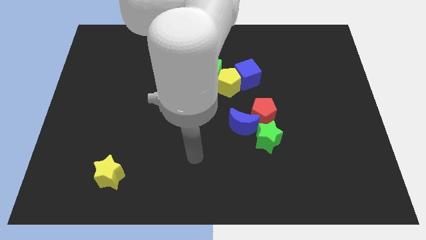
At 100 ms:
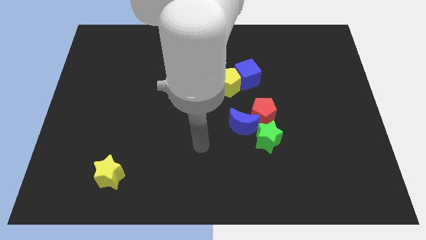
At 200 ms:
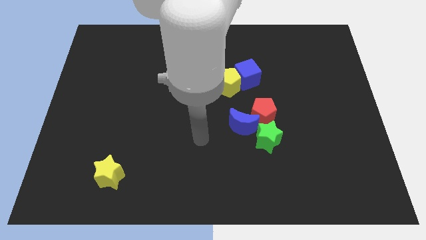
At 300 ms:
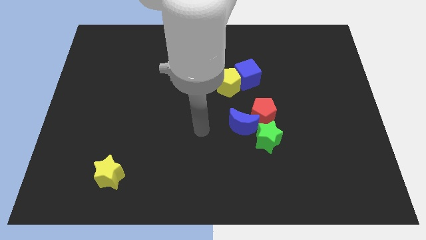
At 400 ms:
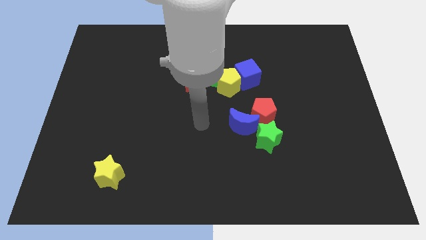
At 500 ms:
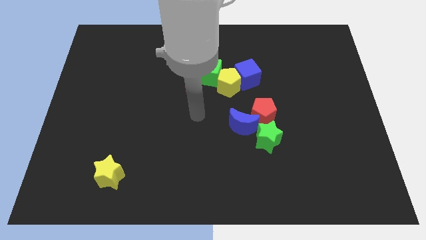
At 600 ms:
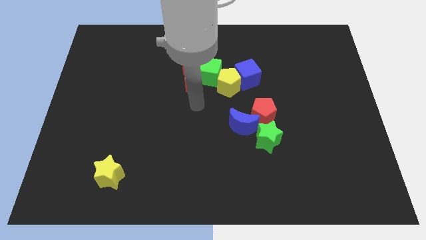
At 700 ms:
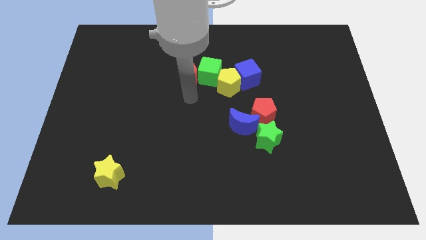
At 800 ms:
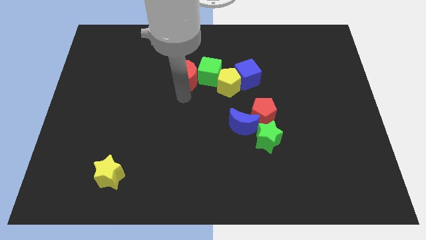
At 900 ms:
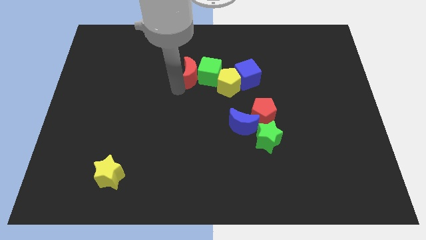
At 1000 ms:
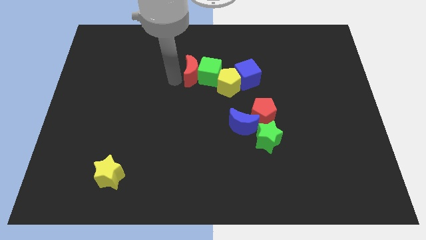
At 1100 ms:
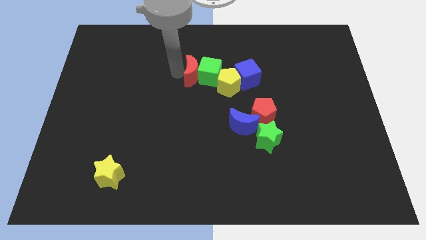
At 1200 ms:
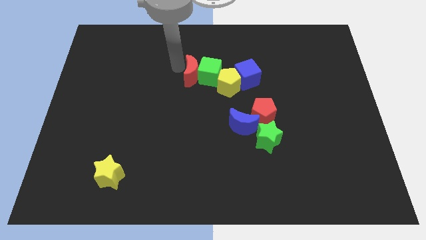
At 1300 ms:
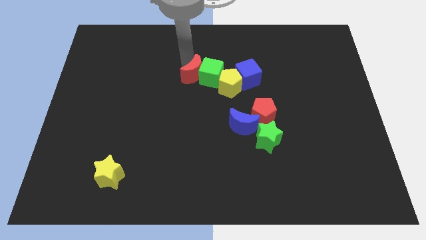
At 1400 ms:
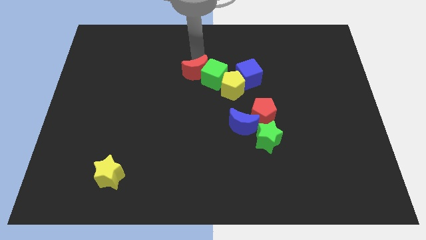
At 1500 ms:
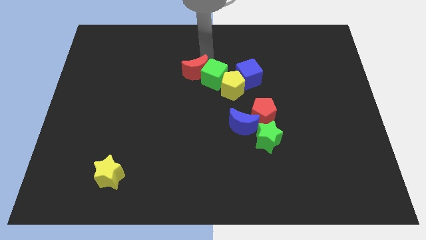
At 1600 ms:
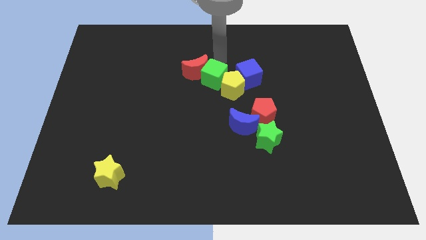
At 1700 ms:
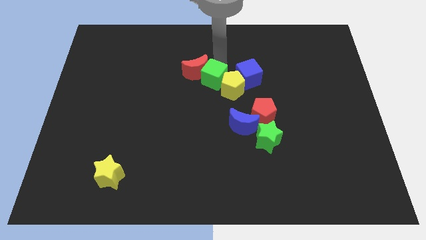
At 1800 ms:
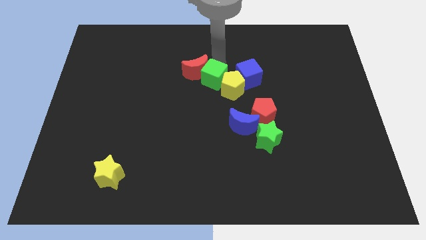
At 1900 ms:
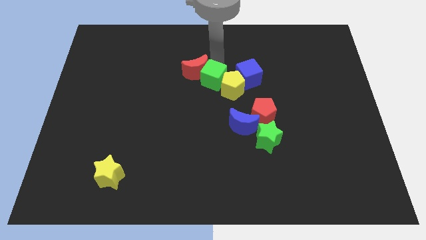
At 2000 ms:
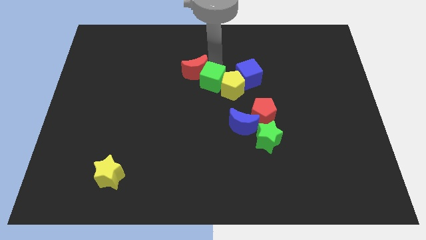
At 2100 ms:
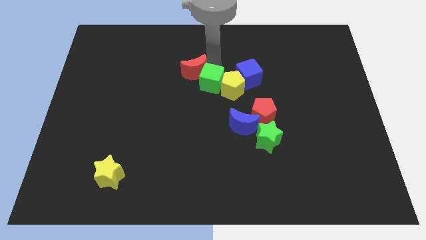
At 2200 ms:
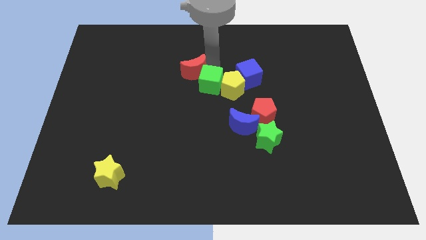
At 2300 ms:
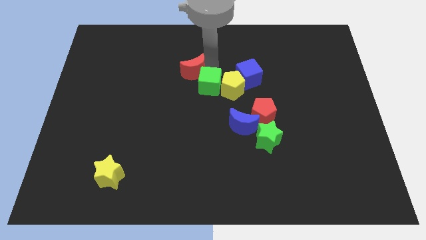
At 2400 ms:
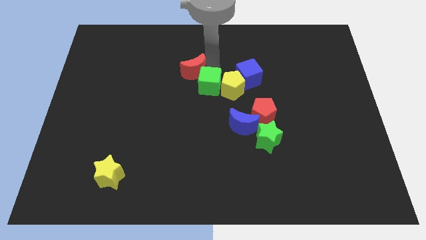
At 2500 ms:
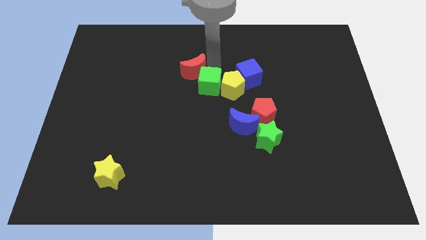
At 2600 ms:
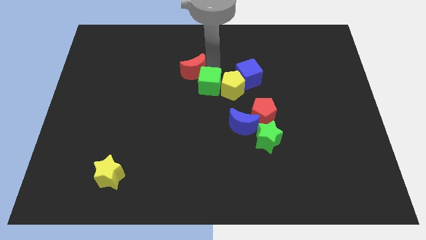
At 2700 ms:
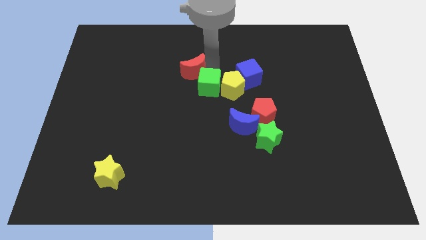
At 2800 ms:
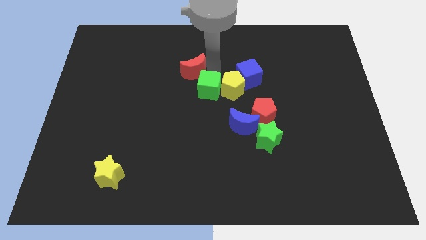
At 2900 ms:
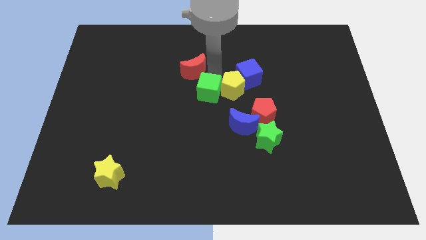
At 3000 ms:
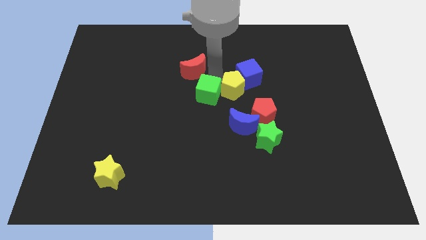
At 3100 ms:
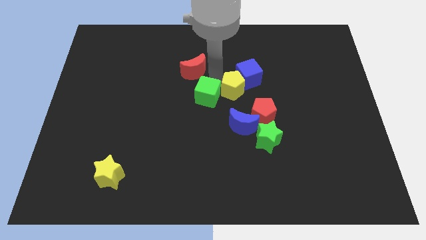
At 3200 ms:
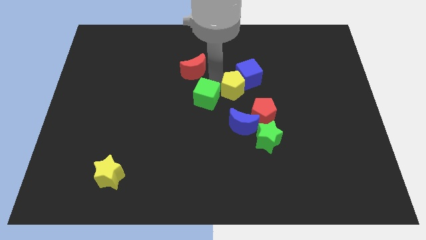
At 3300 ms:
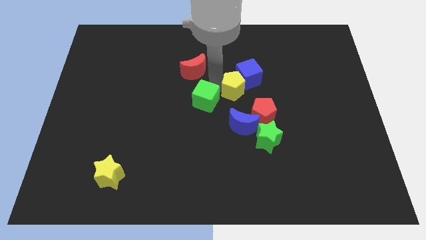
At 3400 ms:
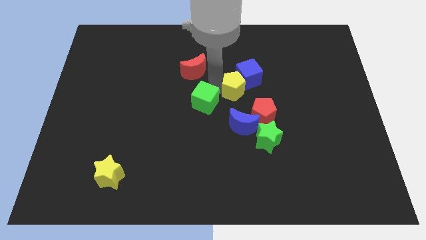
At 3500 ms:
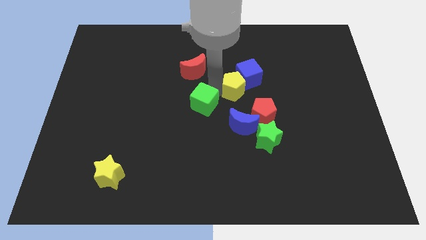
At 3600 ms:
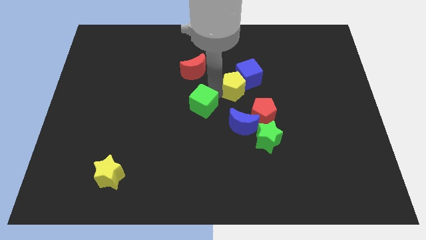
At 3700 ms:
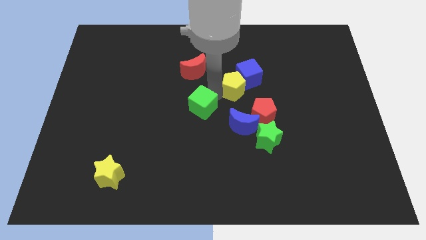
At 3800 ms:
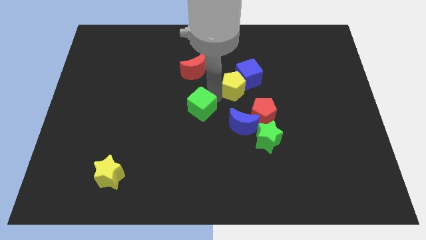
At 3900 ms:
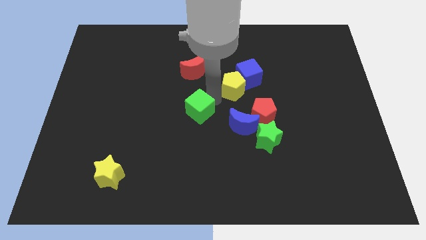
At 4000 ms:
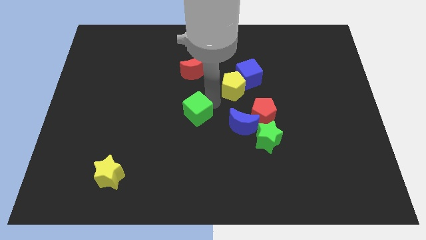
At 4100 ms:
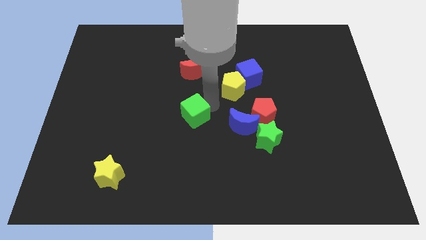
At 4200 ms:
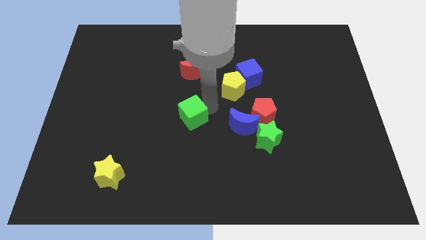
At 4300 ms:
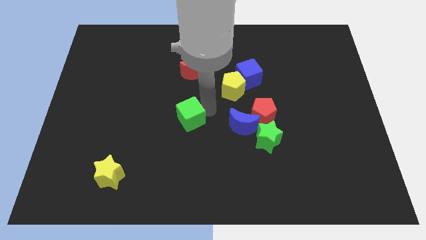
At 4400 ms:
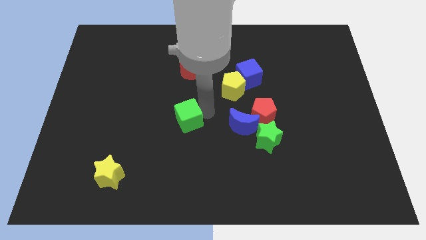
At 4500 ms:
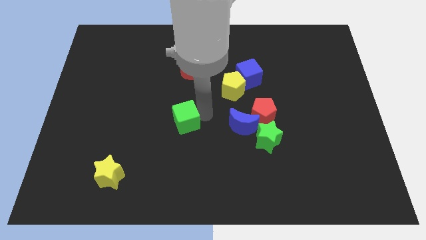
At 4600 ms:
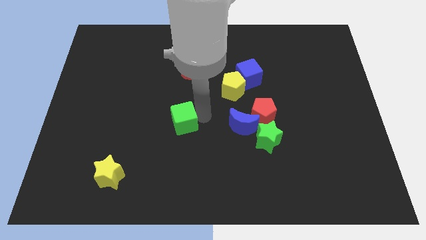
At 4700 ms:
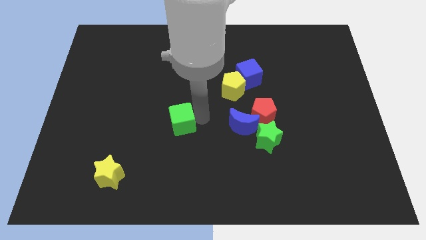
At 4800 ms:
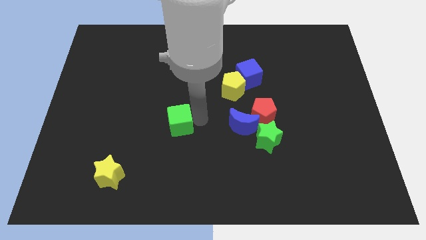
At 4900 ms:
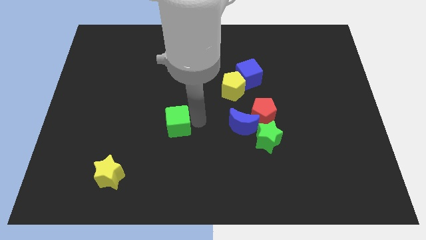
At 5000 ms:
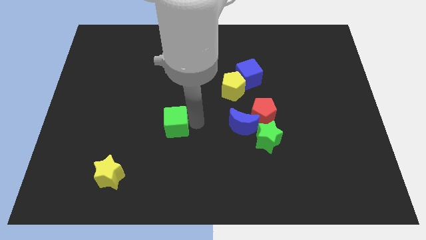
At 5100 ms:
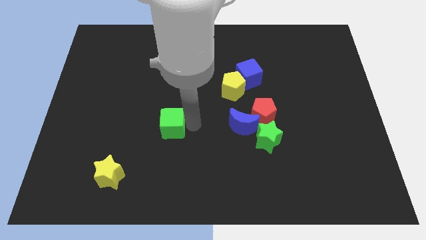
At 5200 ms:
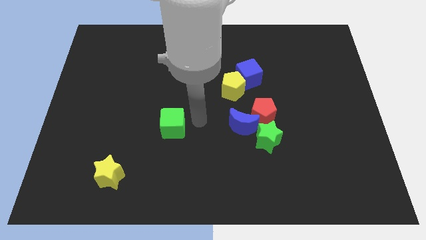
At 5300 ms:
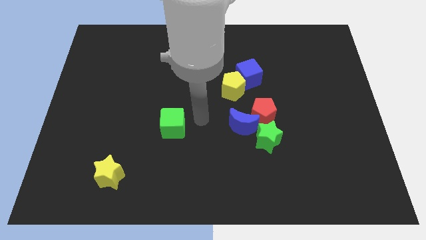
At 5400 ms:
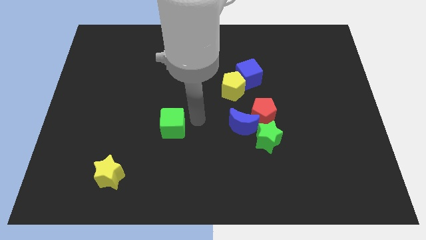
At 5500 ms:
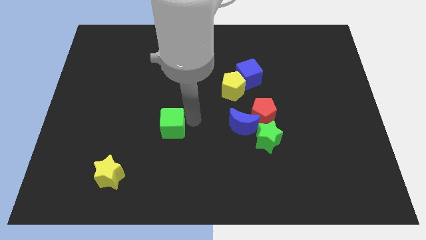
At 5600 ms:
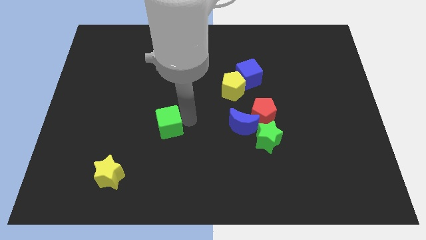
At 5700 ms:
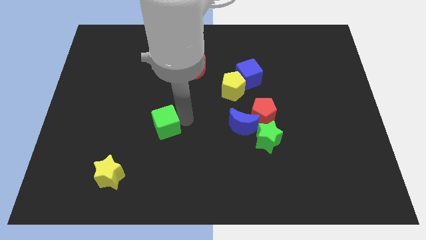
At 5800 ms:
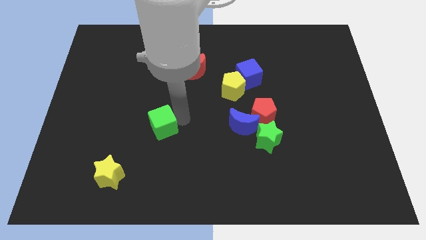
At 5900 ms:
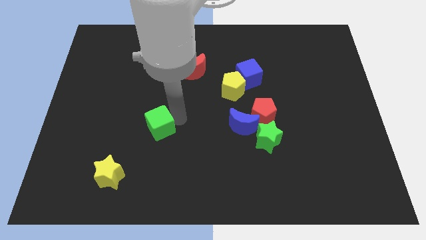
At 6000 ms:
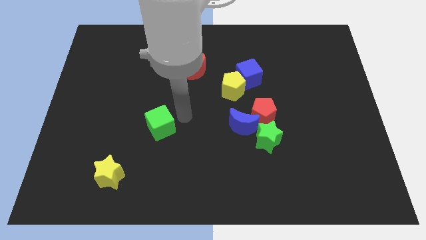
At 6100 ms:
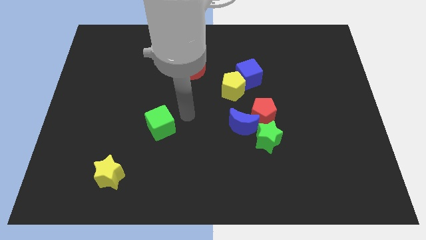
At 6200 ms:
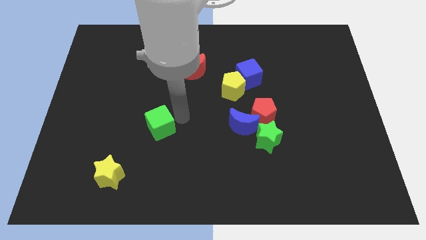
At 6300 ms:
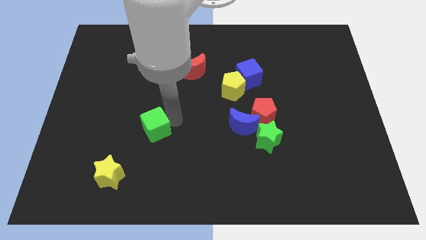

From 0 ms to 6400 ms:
slide the green cube downwards and then left

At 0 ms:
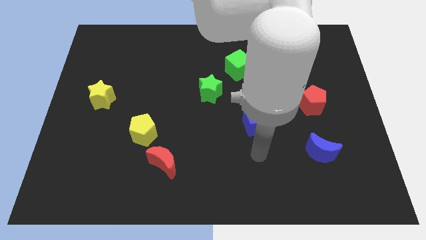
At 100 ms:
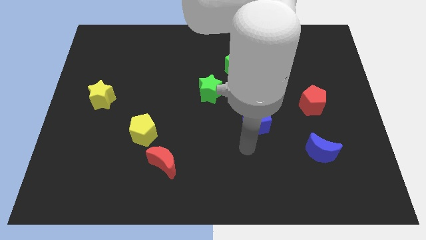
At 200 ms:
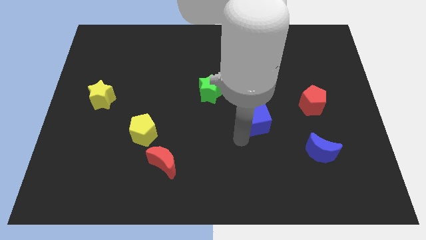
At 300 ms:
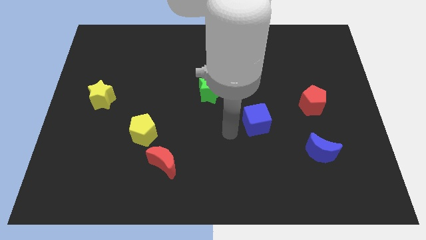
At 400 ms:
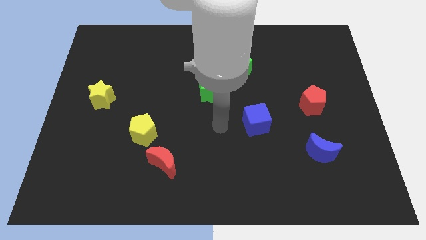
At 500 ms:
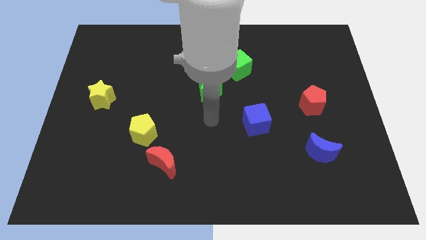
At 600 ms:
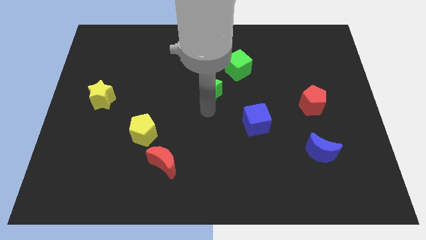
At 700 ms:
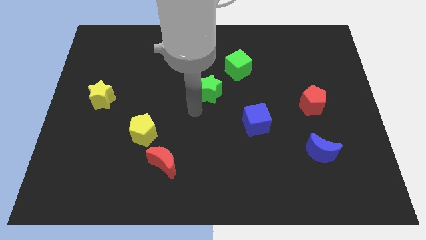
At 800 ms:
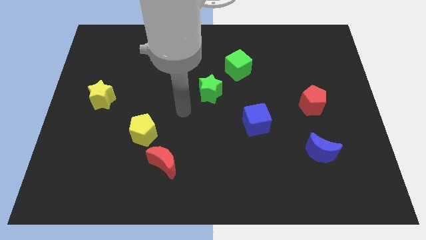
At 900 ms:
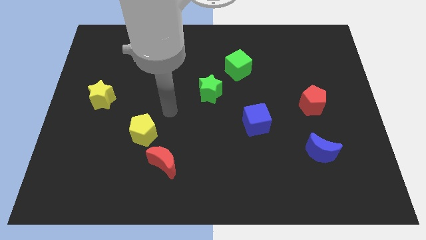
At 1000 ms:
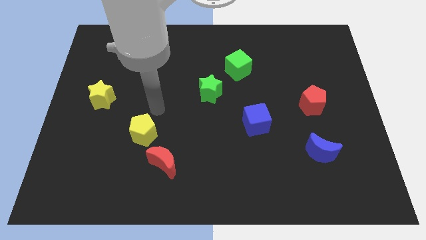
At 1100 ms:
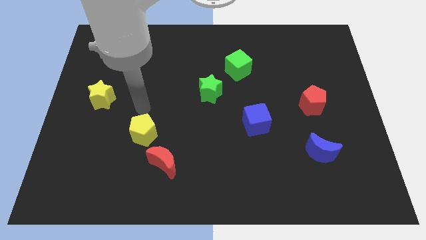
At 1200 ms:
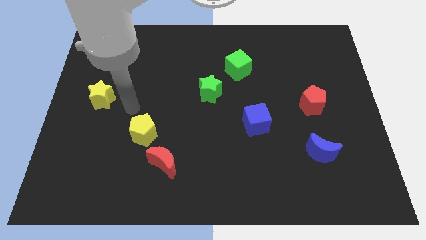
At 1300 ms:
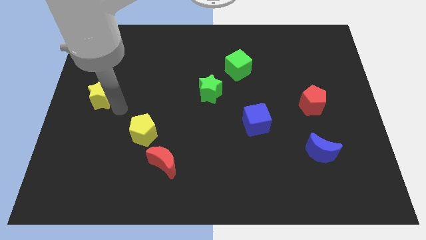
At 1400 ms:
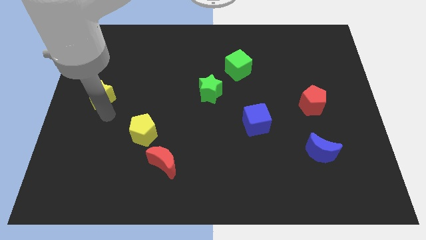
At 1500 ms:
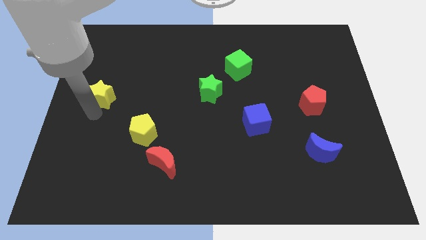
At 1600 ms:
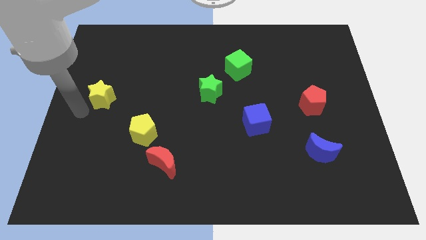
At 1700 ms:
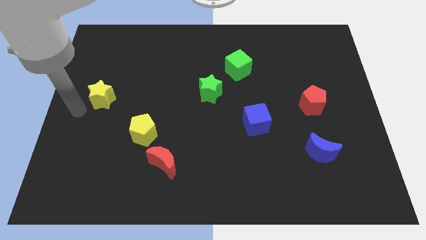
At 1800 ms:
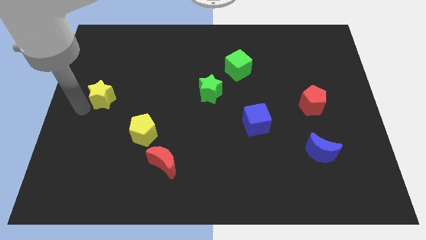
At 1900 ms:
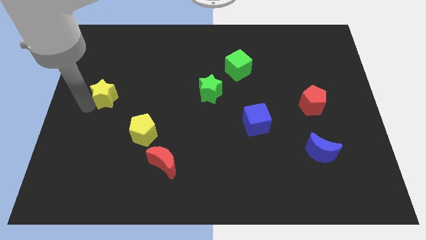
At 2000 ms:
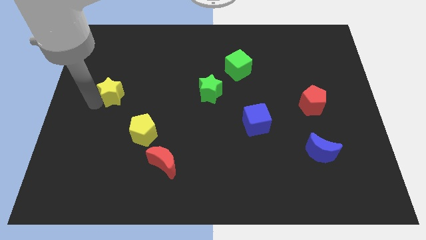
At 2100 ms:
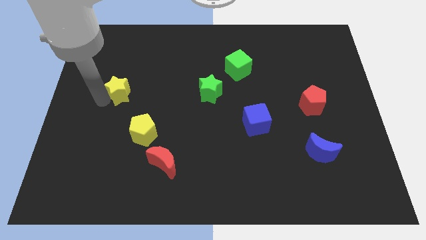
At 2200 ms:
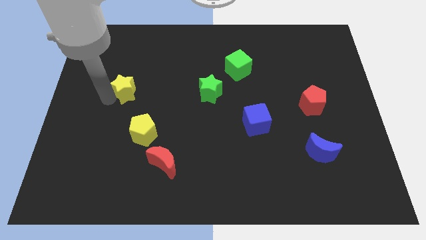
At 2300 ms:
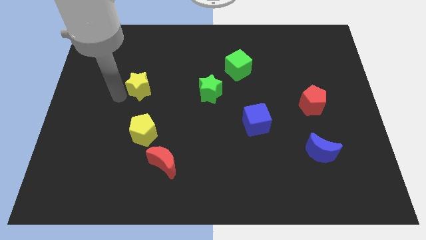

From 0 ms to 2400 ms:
slightly push the yellow star up and right diagonally
